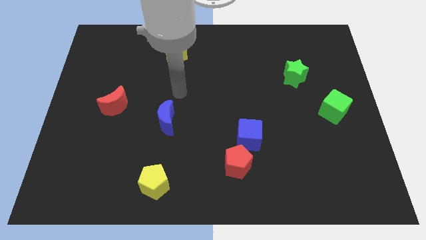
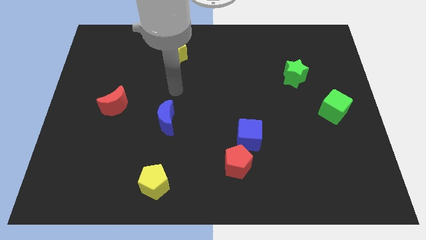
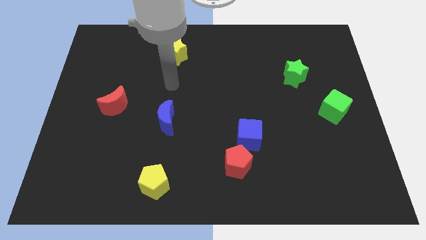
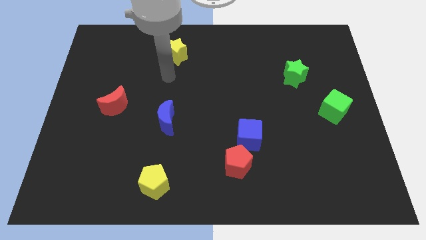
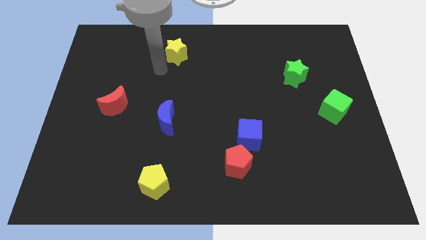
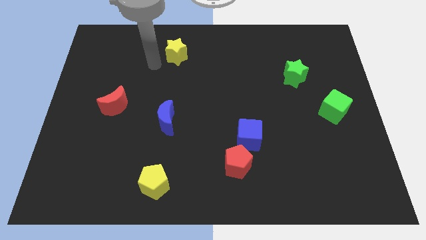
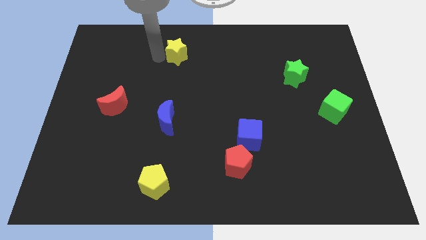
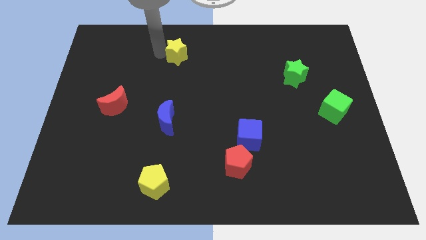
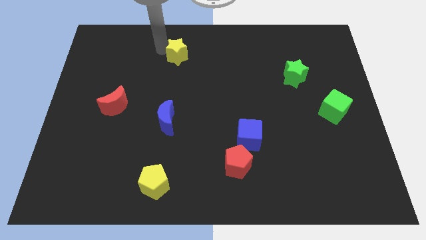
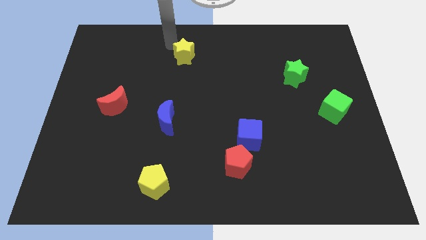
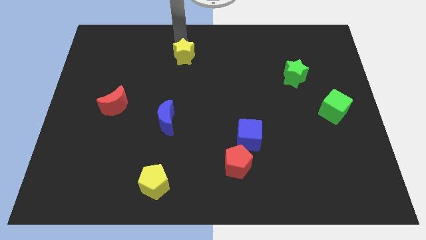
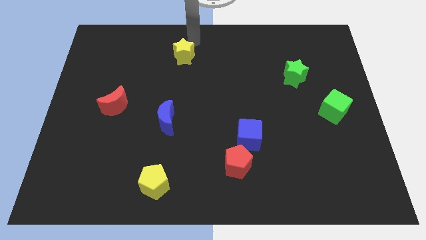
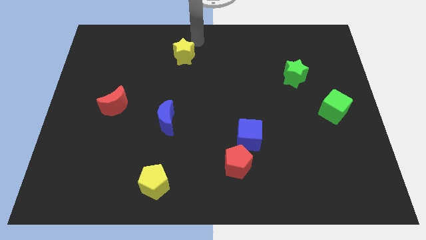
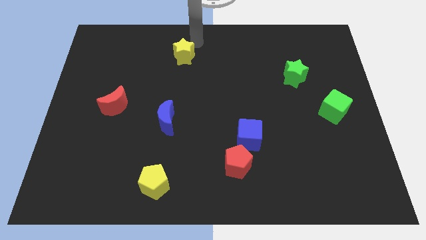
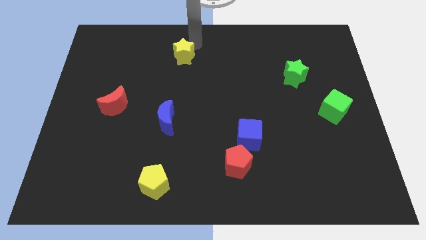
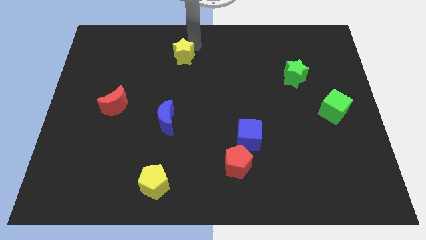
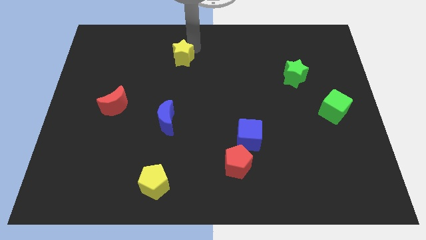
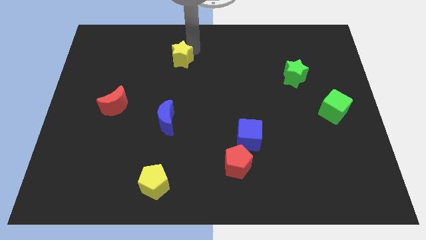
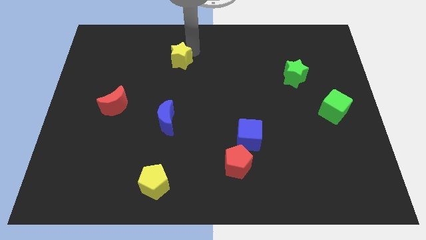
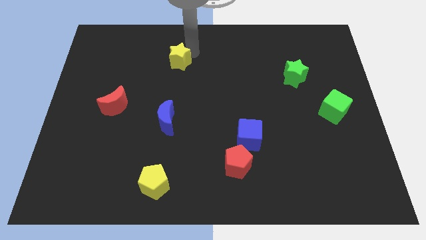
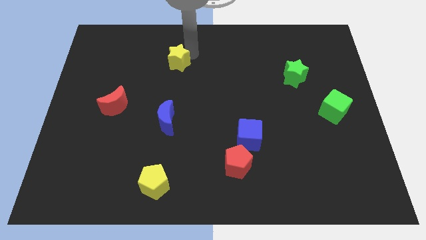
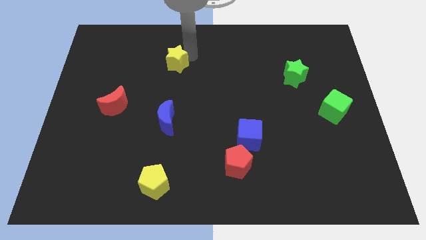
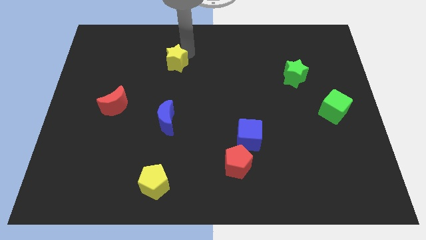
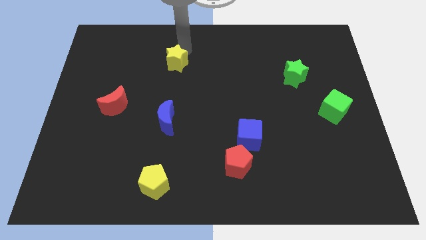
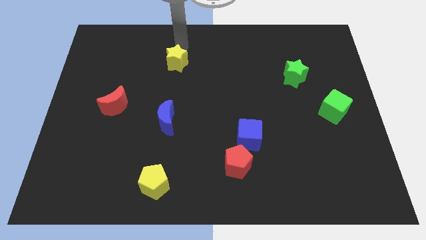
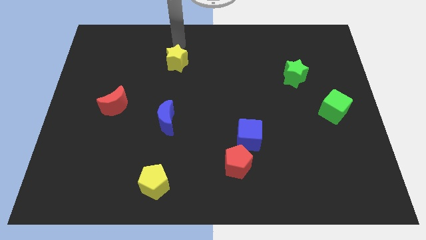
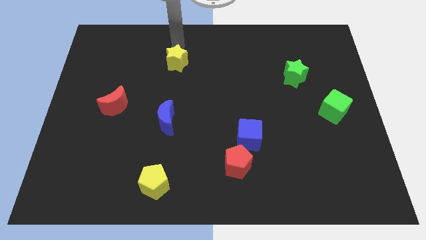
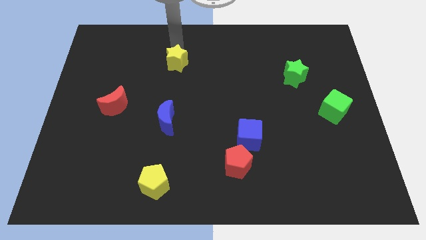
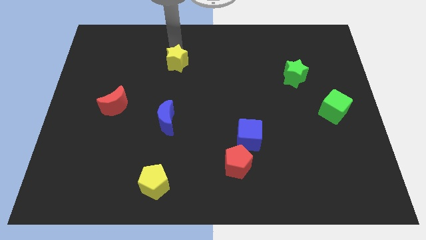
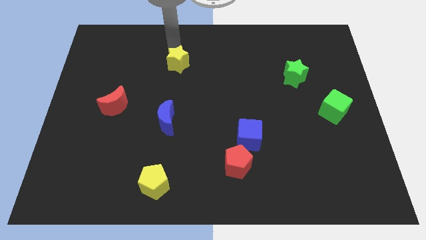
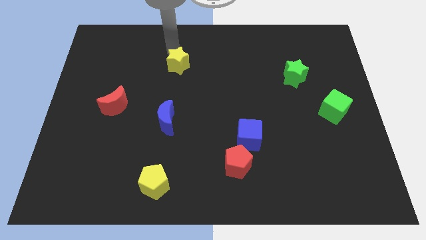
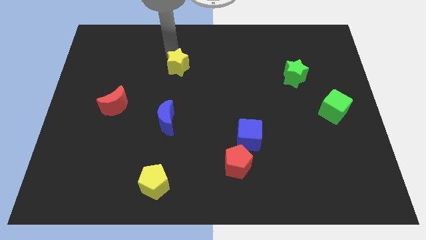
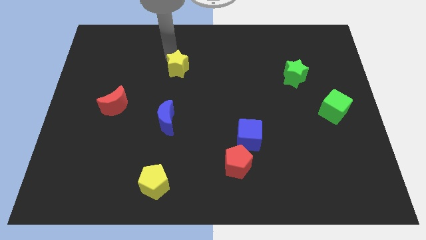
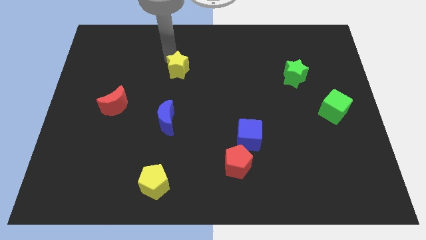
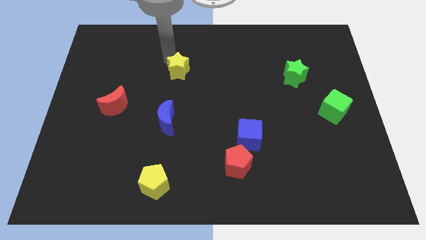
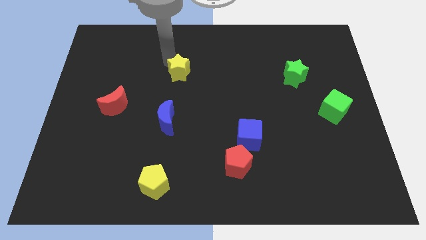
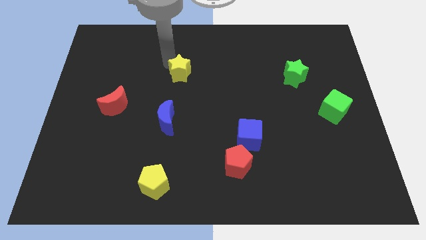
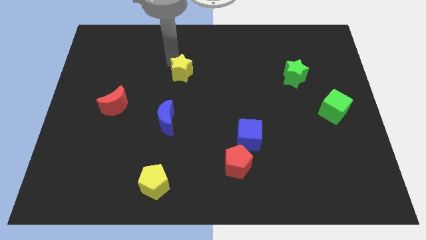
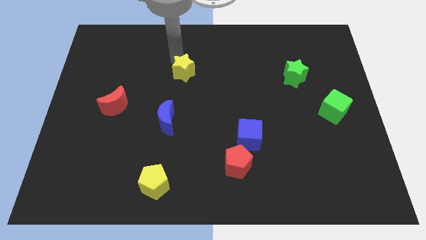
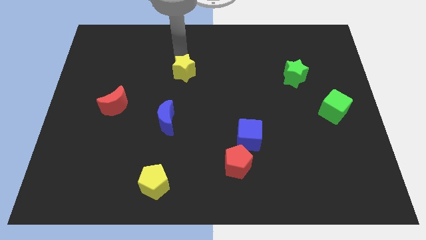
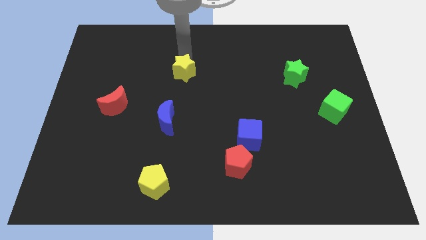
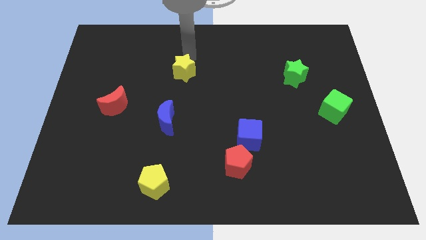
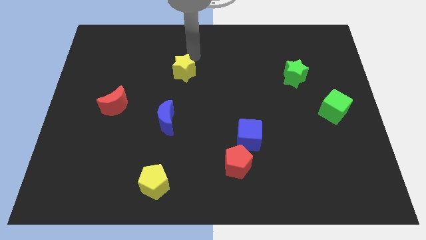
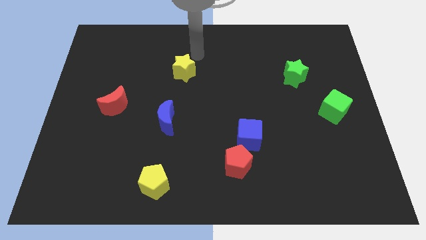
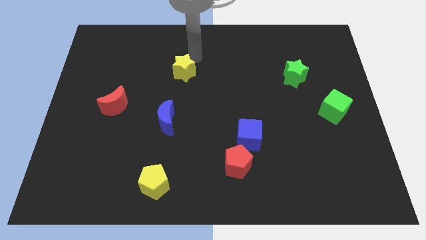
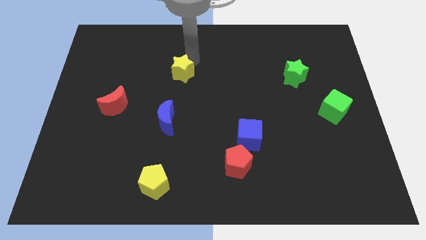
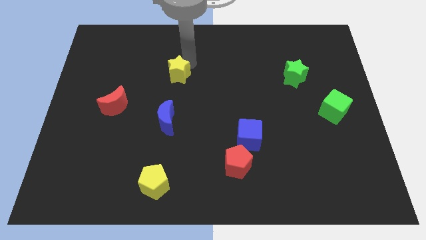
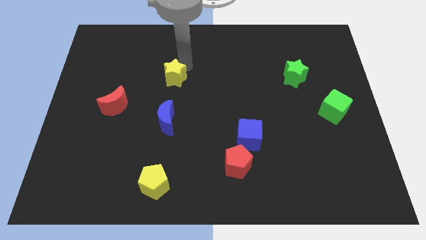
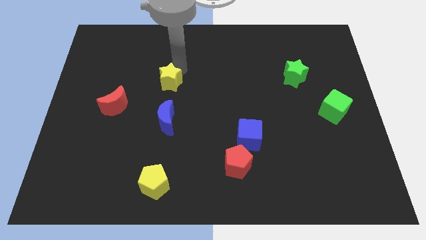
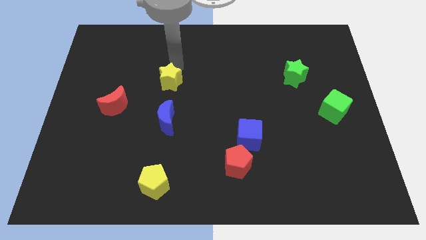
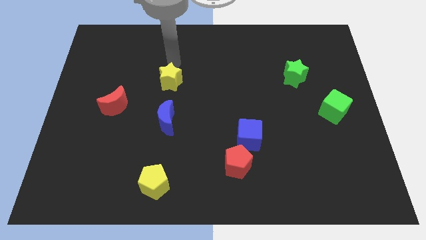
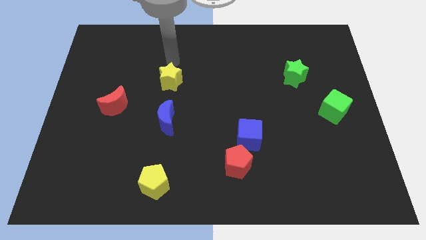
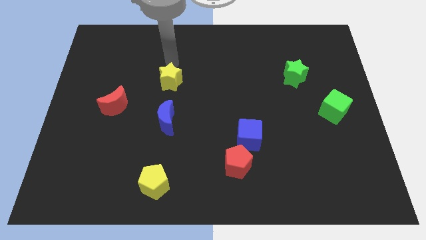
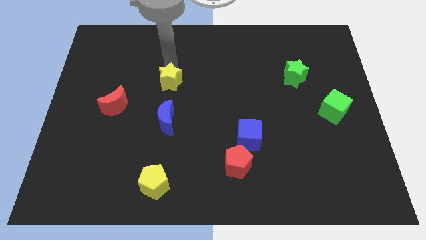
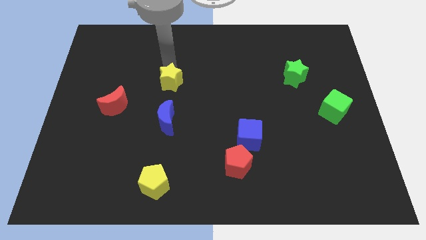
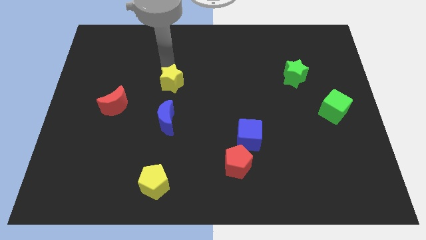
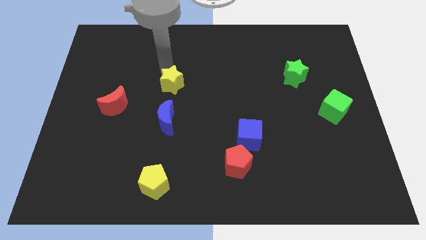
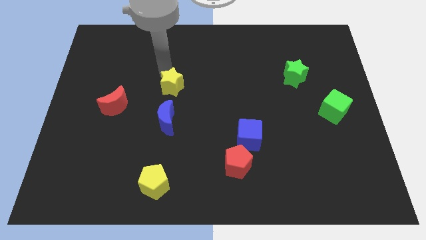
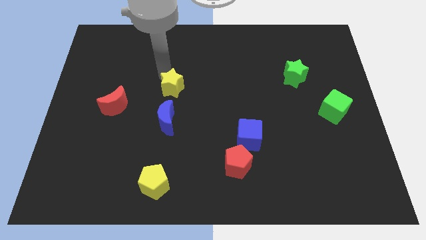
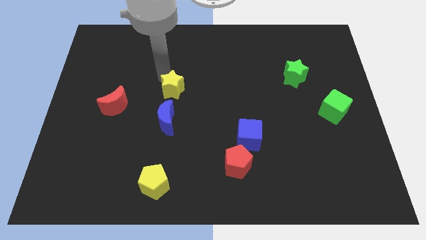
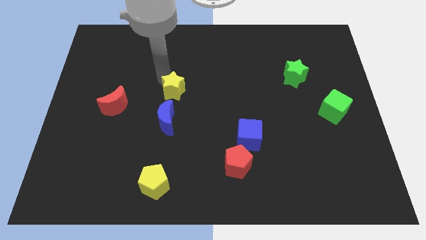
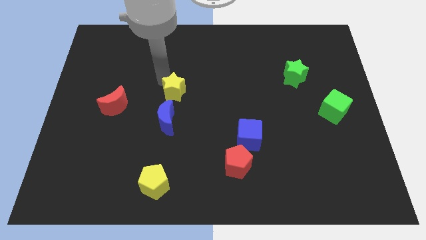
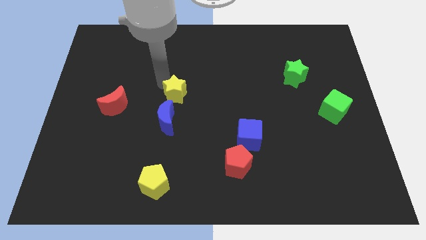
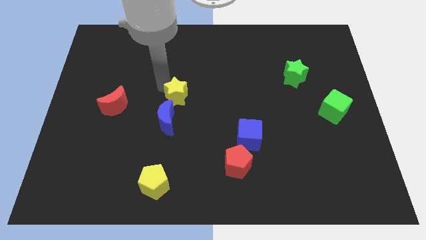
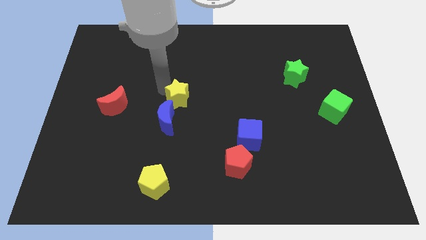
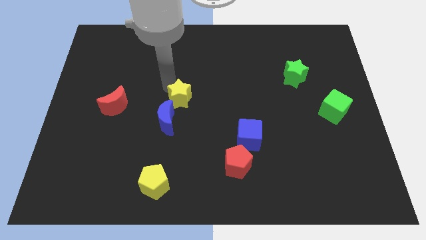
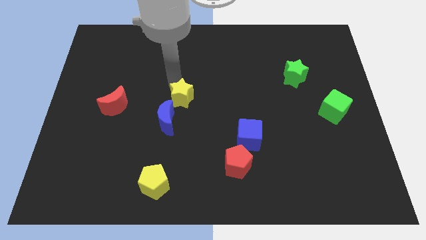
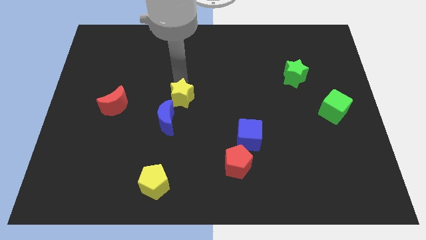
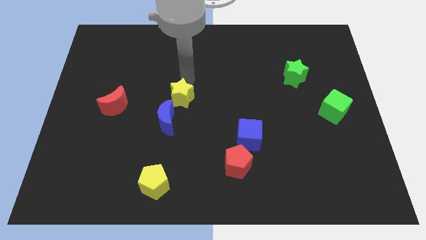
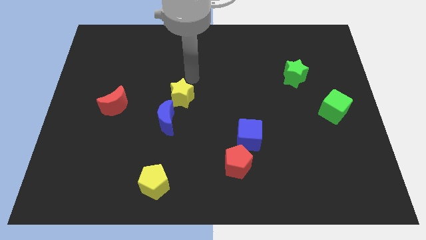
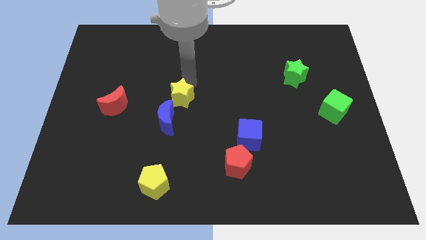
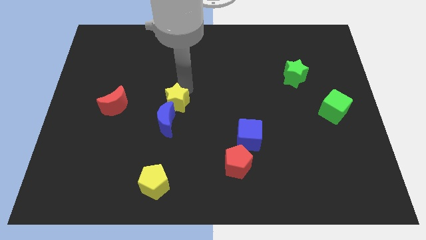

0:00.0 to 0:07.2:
push the yellow star close to the blue moon
